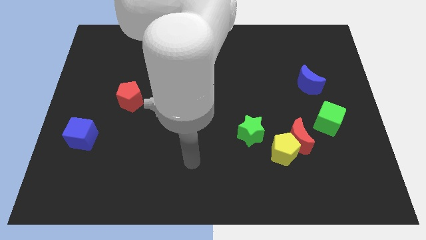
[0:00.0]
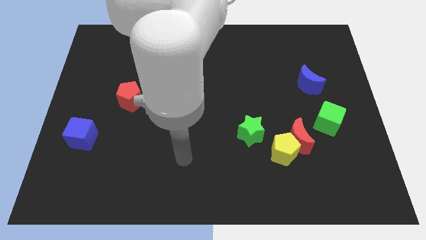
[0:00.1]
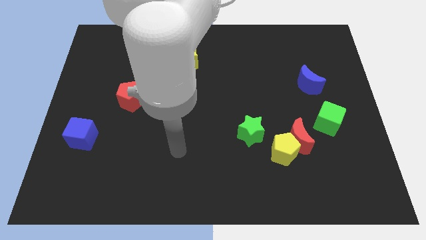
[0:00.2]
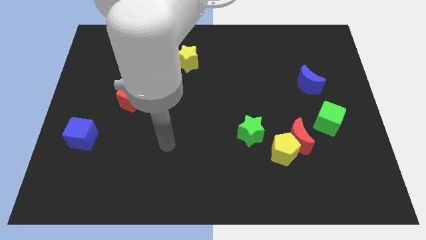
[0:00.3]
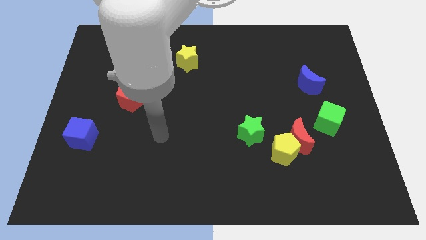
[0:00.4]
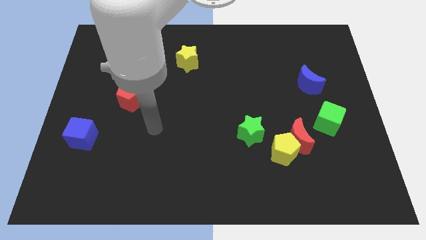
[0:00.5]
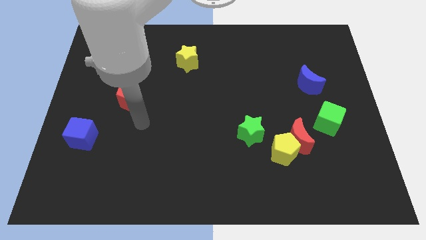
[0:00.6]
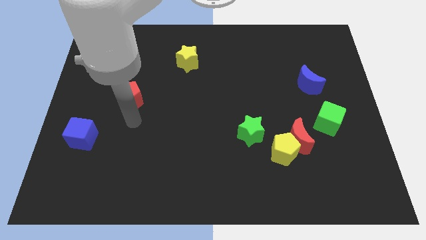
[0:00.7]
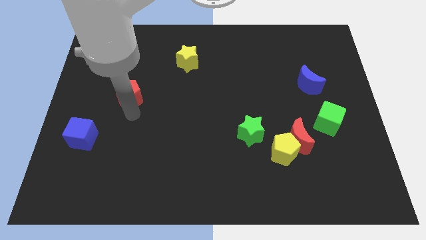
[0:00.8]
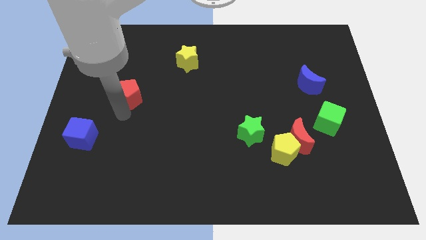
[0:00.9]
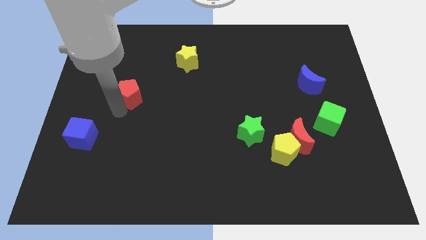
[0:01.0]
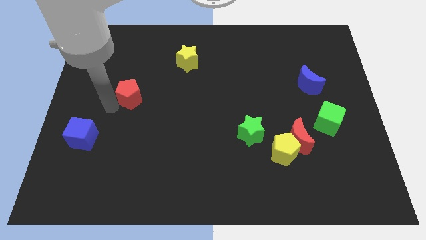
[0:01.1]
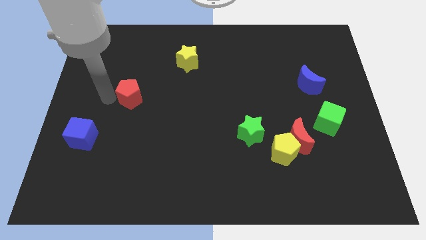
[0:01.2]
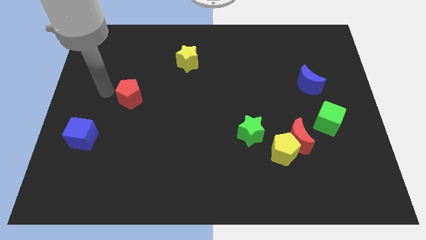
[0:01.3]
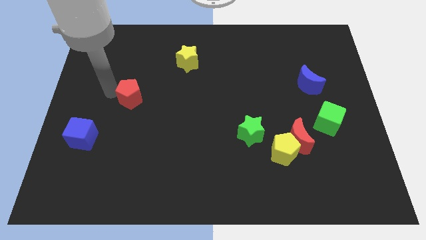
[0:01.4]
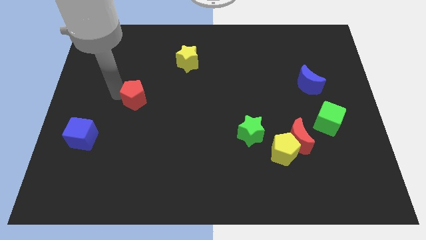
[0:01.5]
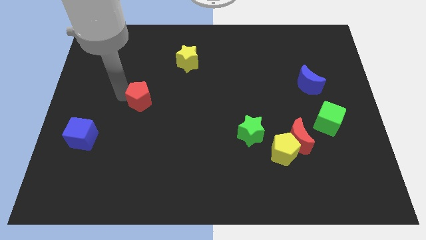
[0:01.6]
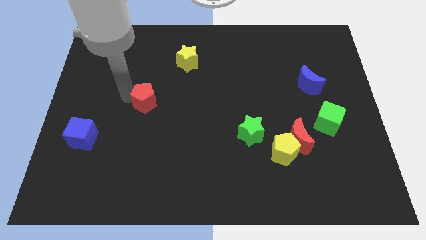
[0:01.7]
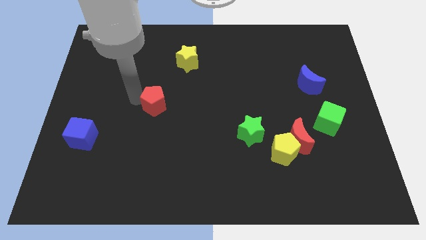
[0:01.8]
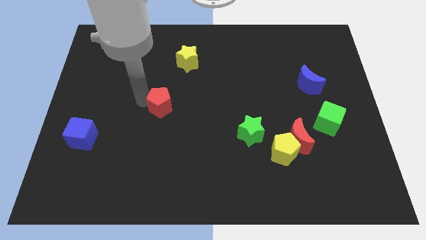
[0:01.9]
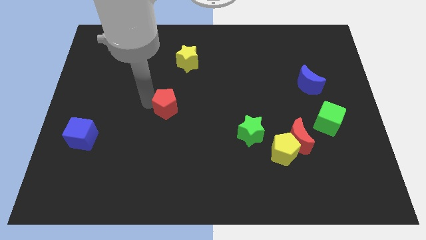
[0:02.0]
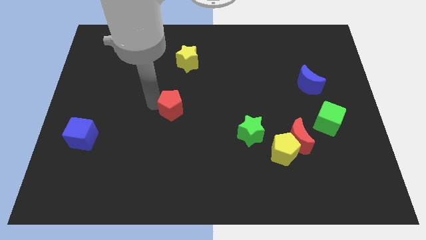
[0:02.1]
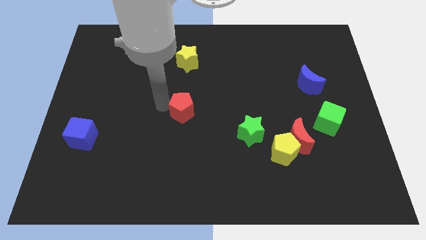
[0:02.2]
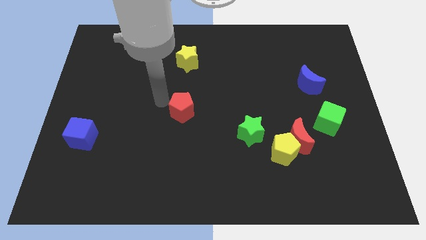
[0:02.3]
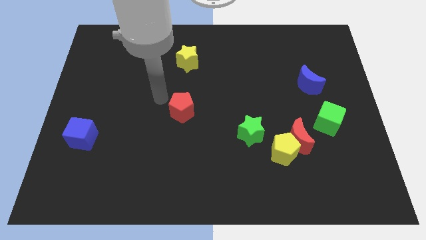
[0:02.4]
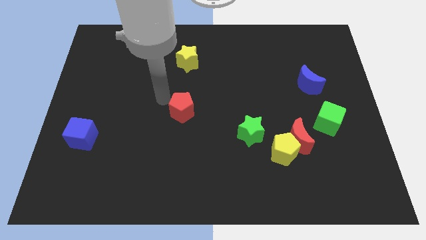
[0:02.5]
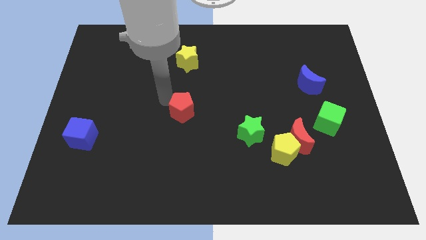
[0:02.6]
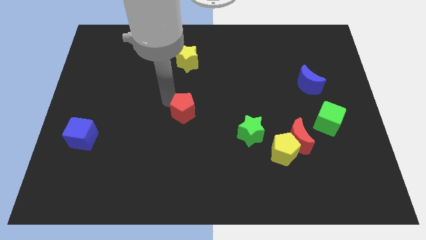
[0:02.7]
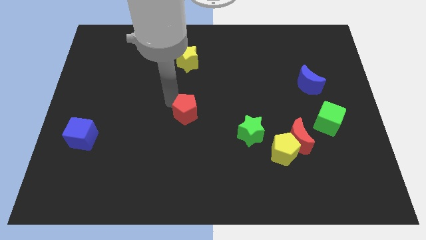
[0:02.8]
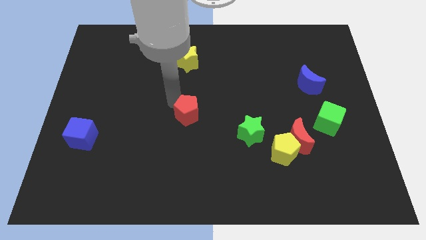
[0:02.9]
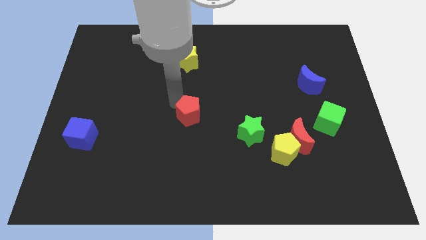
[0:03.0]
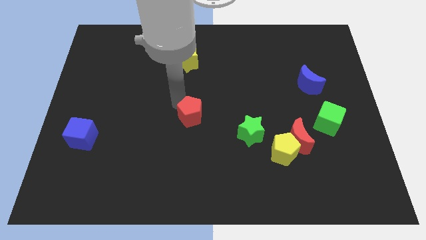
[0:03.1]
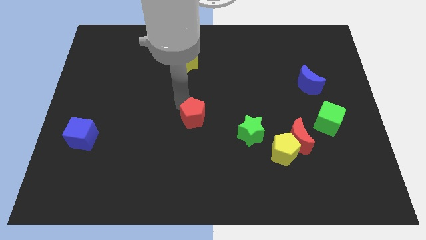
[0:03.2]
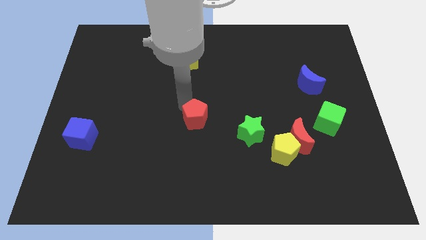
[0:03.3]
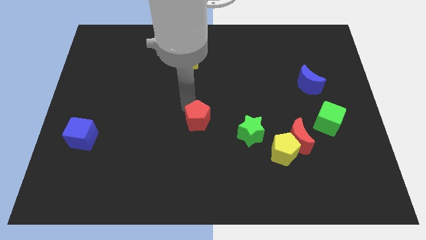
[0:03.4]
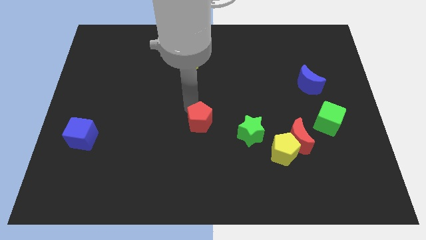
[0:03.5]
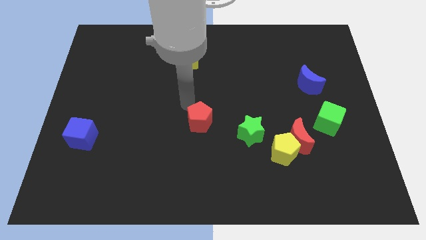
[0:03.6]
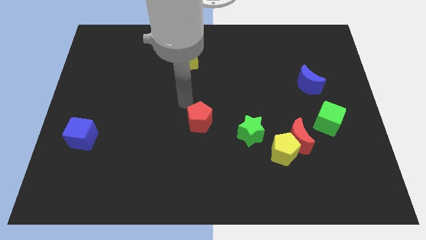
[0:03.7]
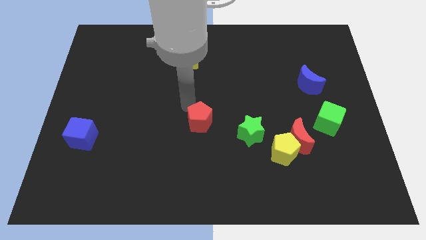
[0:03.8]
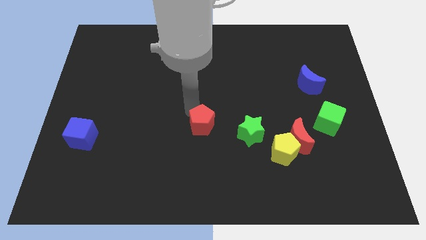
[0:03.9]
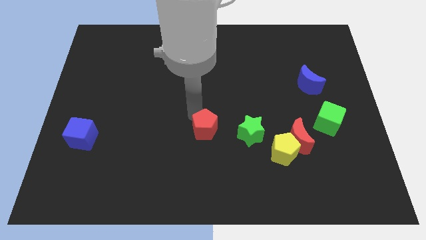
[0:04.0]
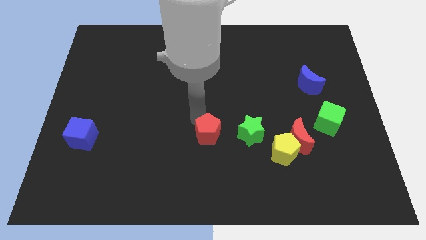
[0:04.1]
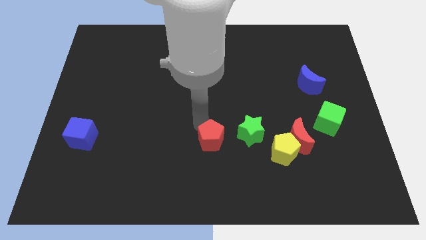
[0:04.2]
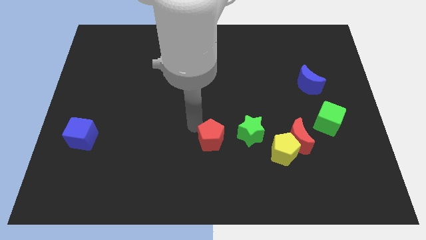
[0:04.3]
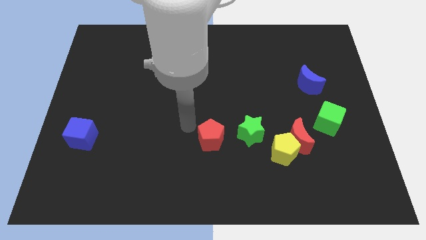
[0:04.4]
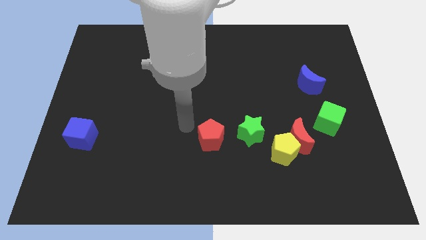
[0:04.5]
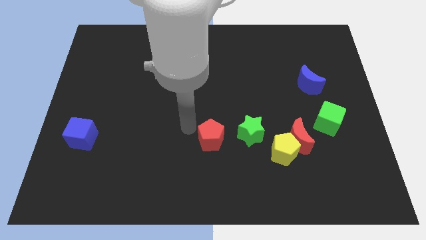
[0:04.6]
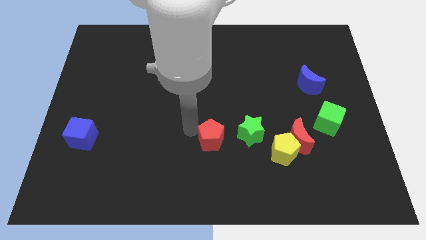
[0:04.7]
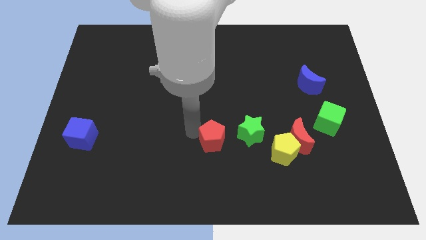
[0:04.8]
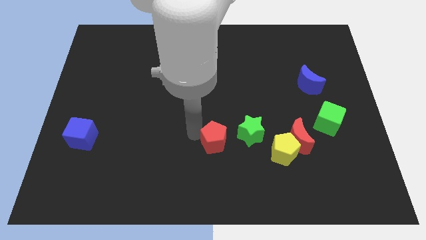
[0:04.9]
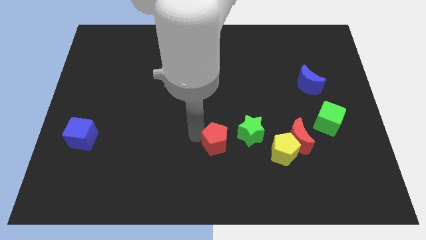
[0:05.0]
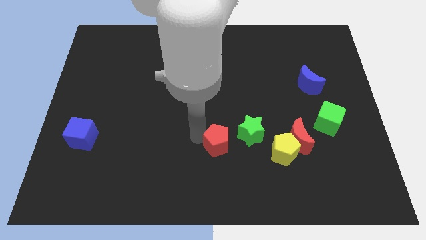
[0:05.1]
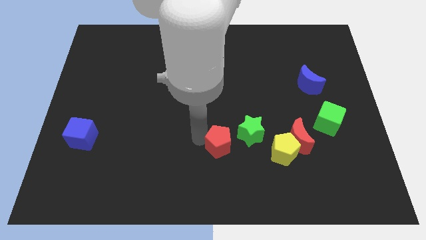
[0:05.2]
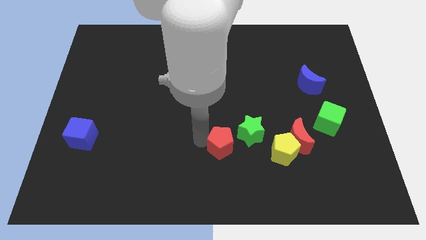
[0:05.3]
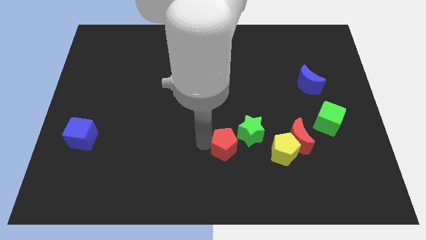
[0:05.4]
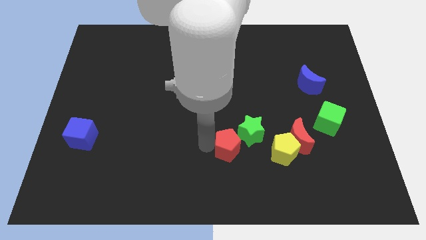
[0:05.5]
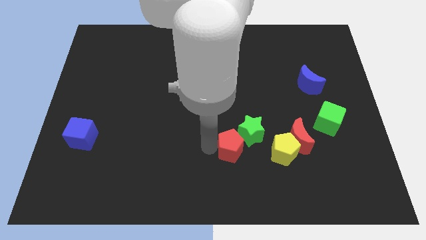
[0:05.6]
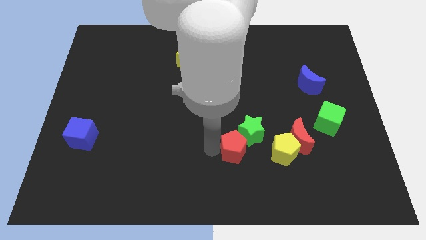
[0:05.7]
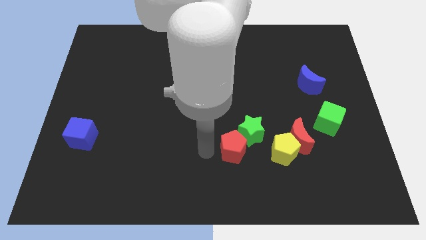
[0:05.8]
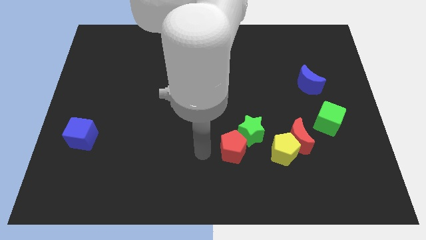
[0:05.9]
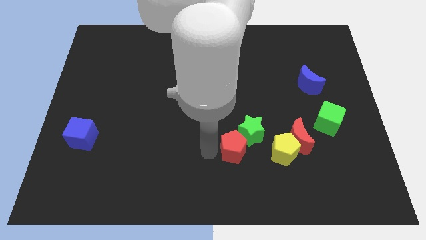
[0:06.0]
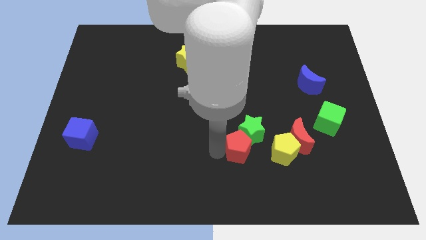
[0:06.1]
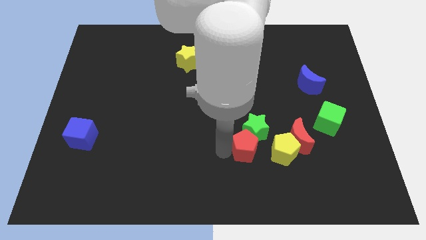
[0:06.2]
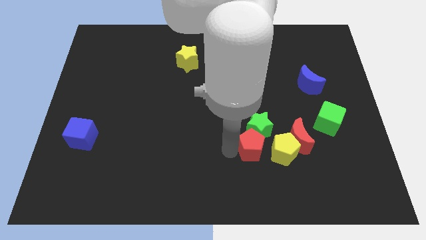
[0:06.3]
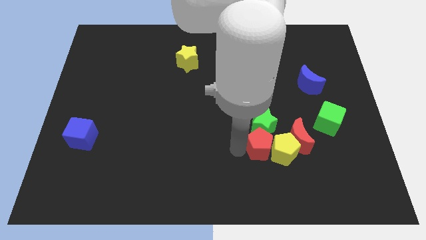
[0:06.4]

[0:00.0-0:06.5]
push the red pentagon close to the yellow pentagon

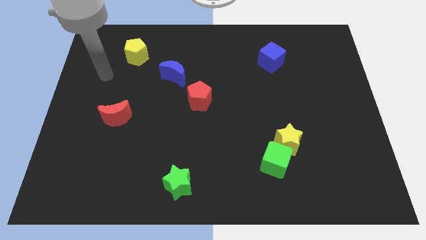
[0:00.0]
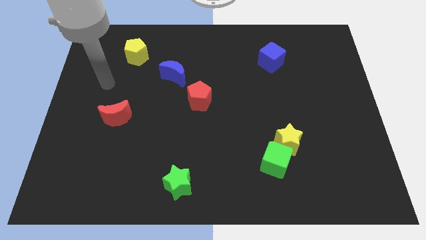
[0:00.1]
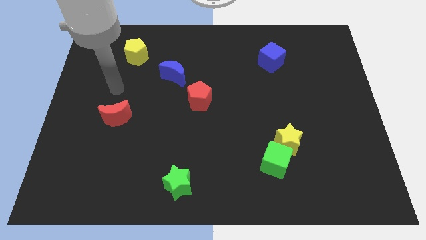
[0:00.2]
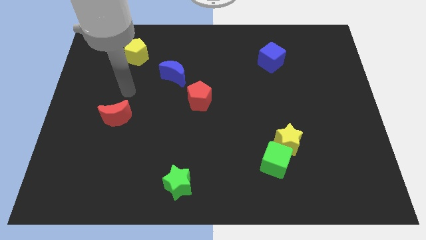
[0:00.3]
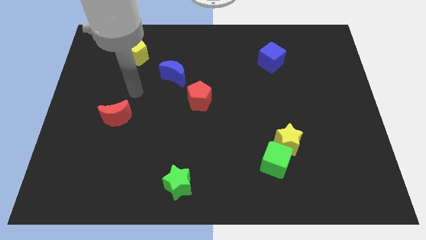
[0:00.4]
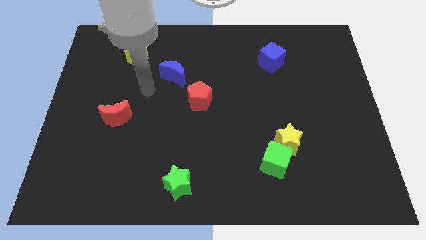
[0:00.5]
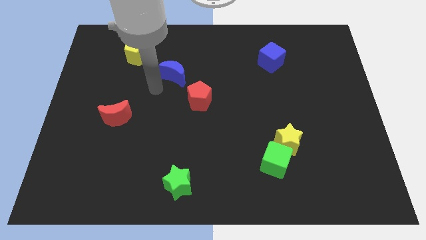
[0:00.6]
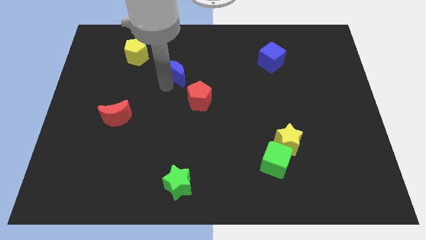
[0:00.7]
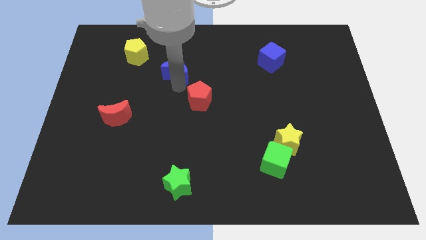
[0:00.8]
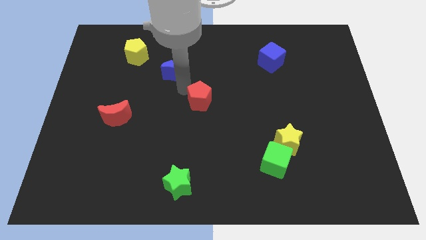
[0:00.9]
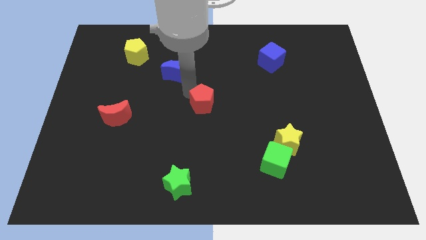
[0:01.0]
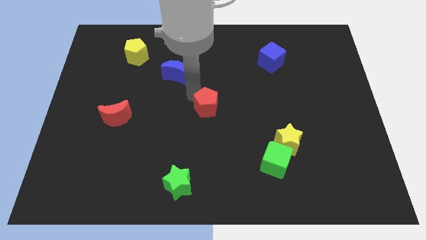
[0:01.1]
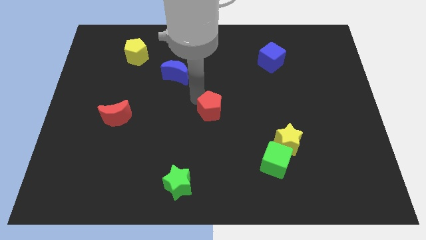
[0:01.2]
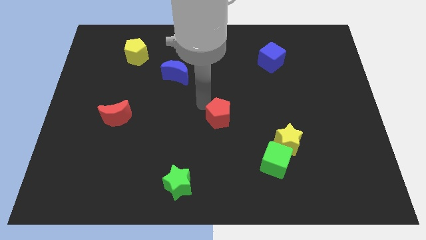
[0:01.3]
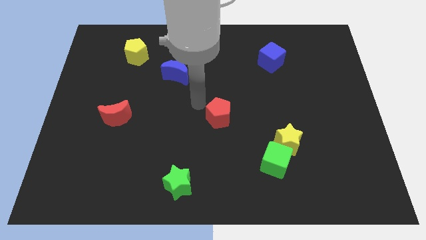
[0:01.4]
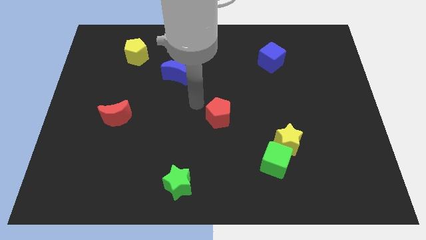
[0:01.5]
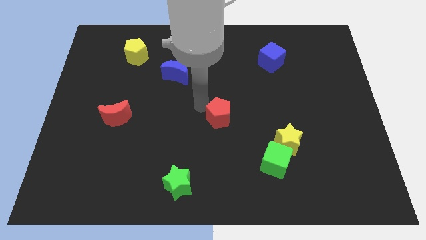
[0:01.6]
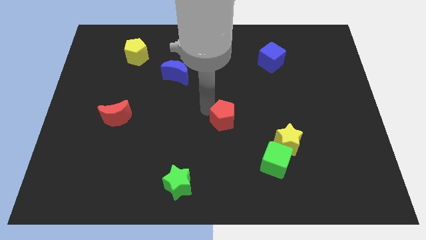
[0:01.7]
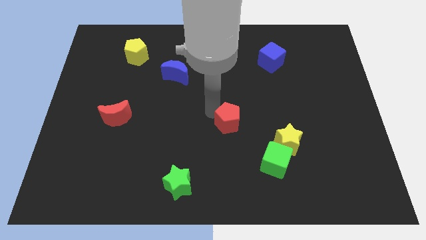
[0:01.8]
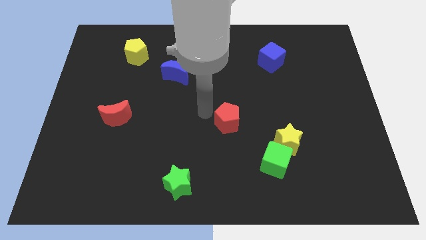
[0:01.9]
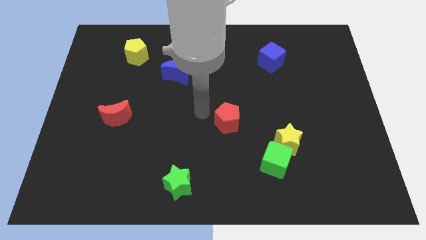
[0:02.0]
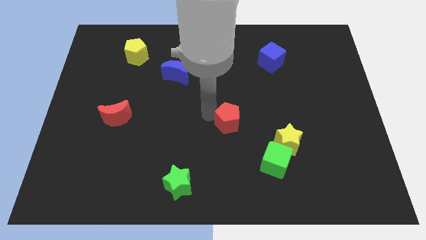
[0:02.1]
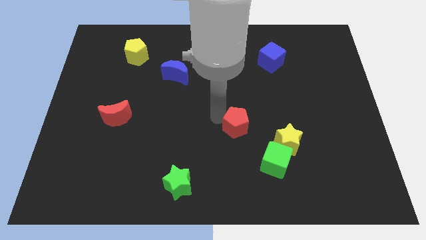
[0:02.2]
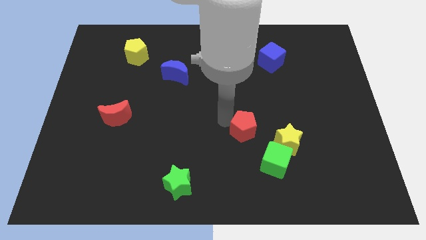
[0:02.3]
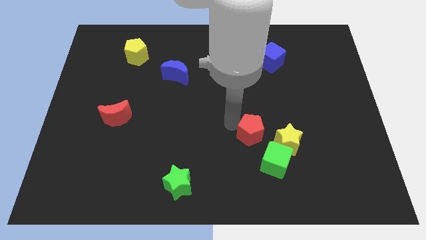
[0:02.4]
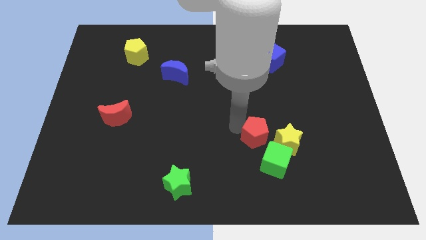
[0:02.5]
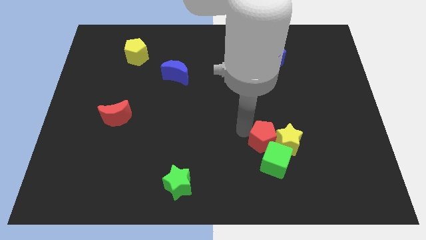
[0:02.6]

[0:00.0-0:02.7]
move the red pentagon close to the yellow star
